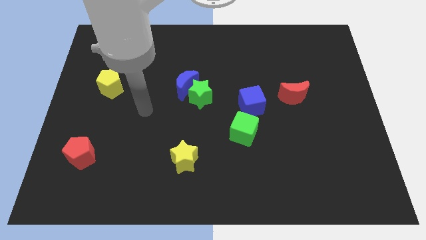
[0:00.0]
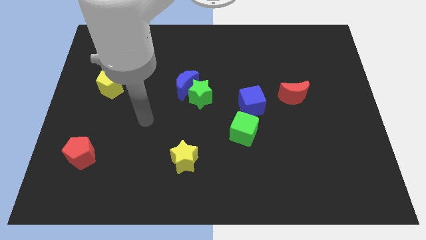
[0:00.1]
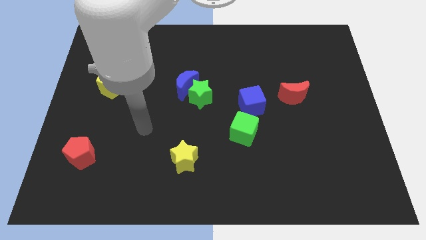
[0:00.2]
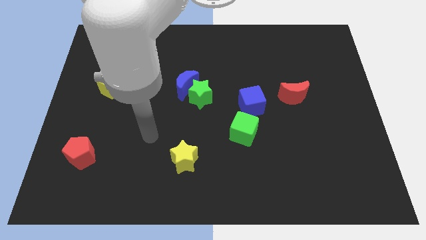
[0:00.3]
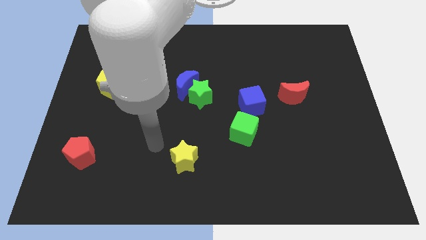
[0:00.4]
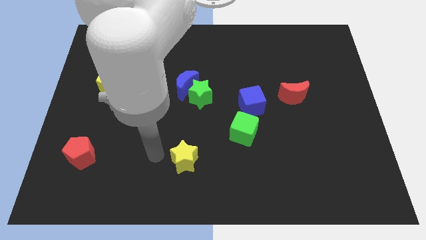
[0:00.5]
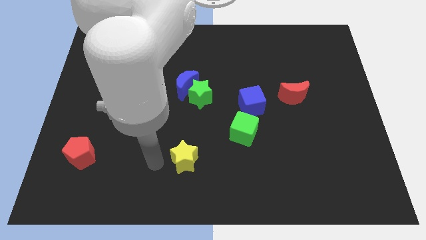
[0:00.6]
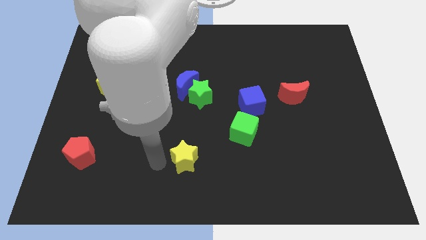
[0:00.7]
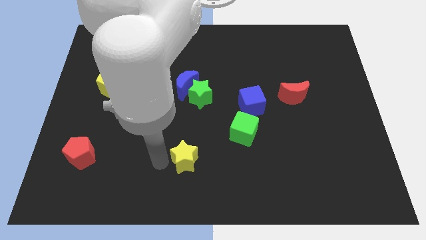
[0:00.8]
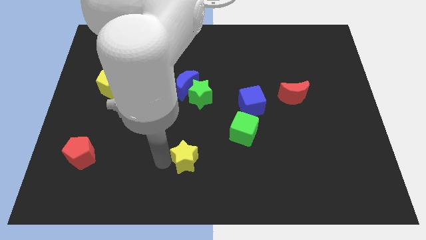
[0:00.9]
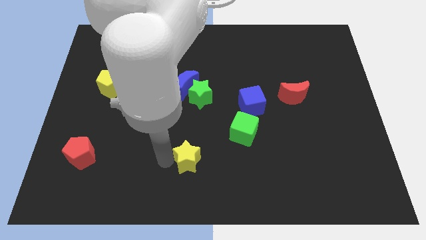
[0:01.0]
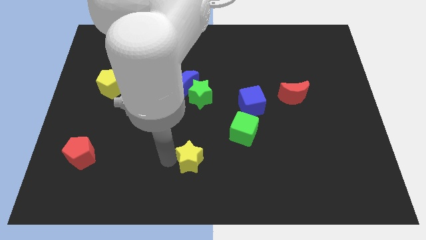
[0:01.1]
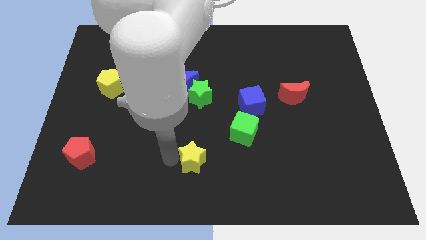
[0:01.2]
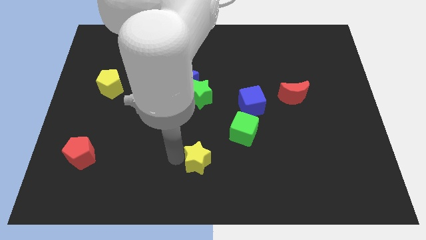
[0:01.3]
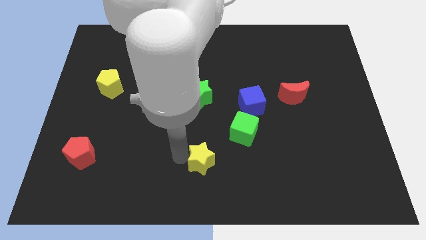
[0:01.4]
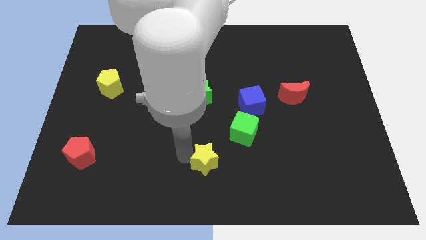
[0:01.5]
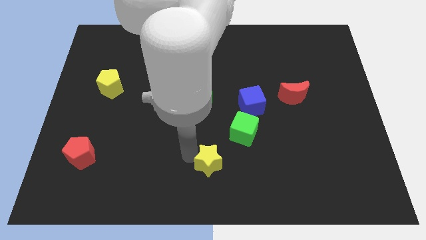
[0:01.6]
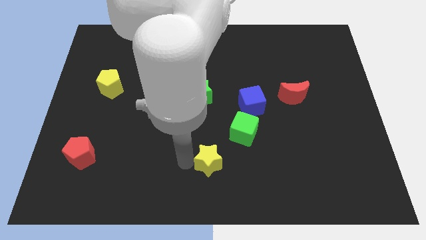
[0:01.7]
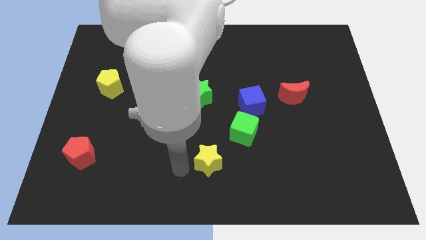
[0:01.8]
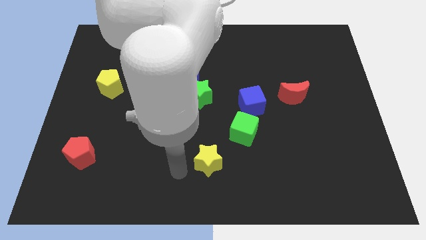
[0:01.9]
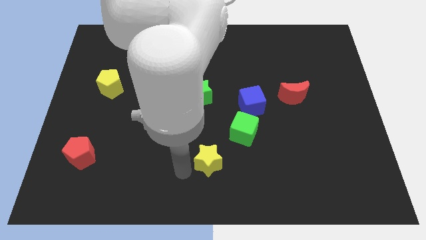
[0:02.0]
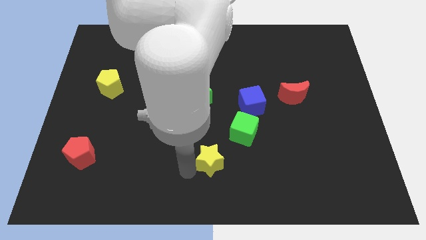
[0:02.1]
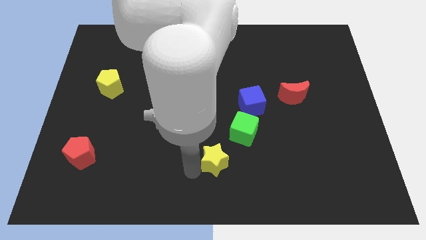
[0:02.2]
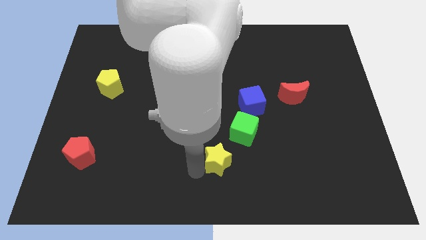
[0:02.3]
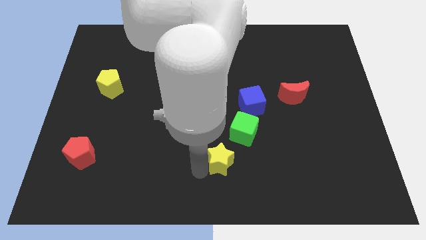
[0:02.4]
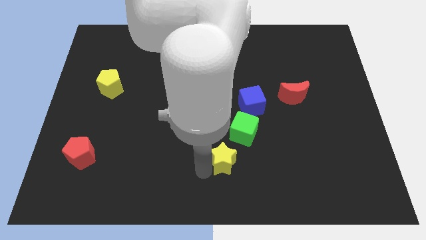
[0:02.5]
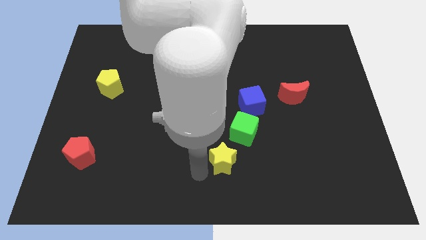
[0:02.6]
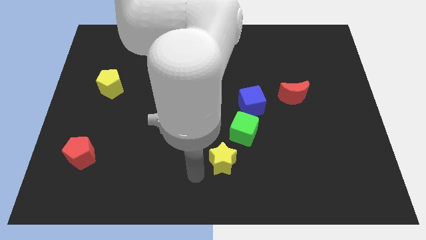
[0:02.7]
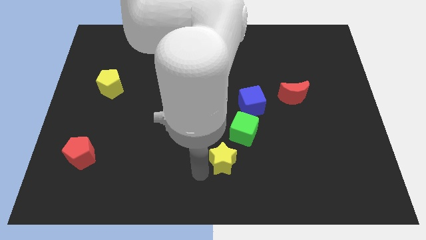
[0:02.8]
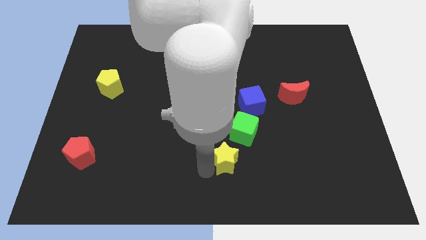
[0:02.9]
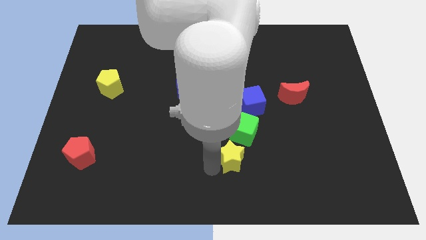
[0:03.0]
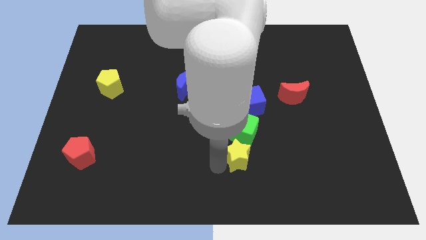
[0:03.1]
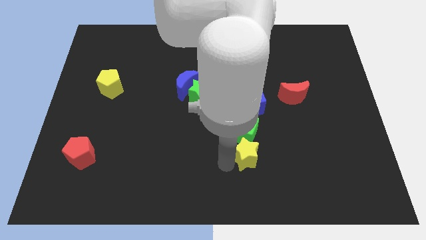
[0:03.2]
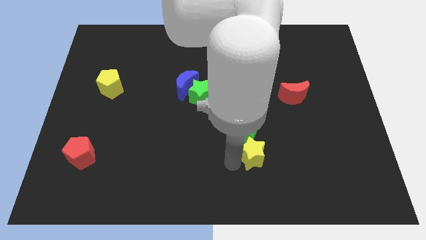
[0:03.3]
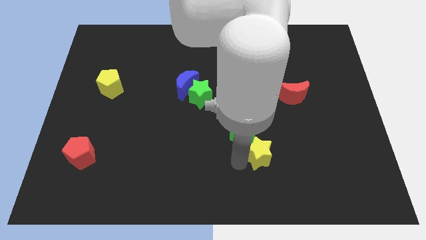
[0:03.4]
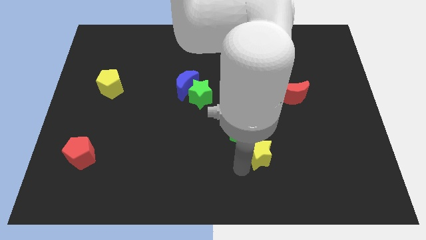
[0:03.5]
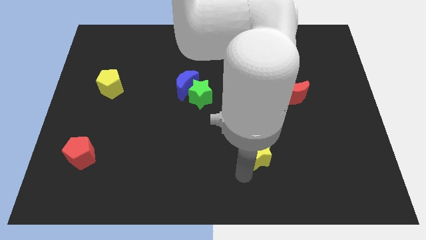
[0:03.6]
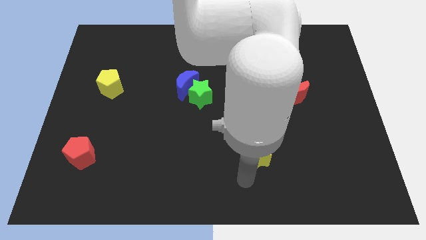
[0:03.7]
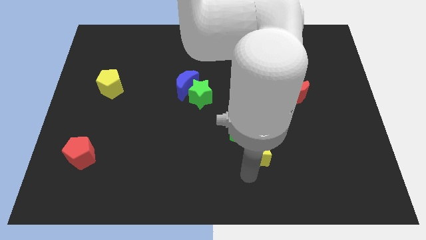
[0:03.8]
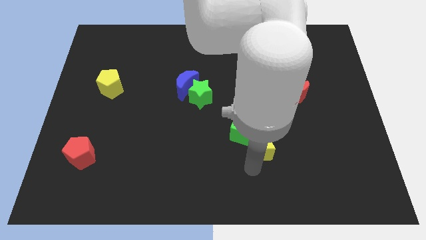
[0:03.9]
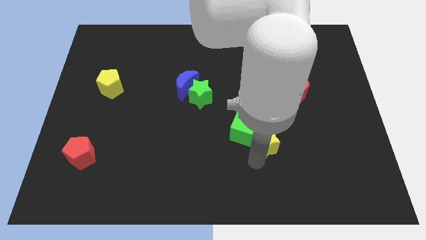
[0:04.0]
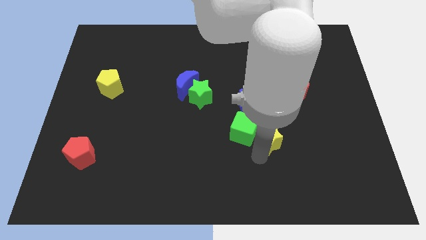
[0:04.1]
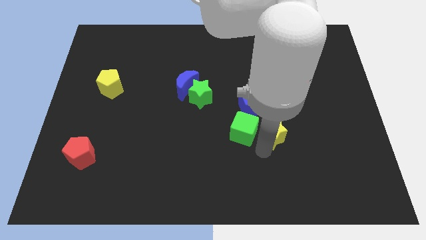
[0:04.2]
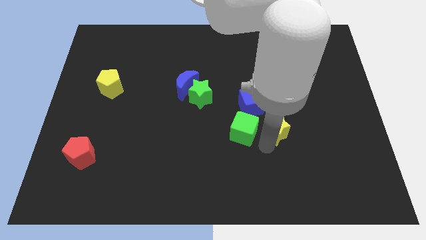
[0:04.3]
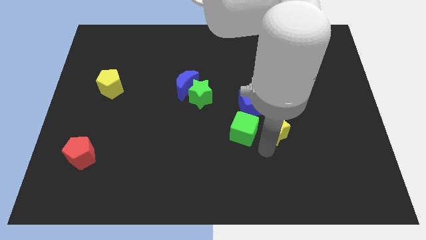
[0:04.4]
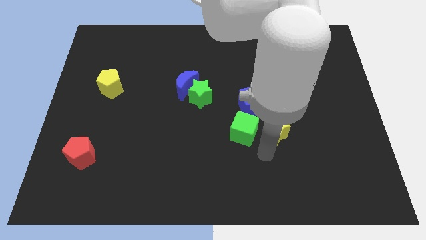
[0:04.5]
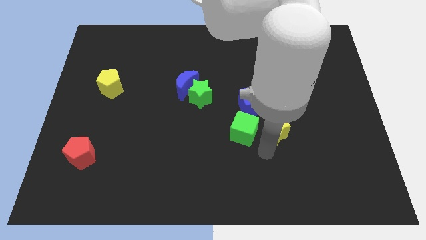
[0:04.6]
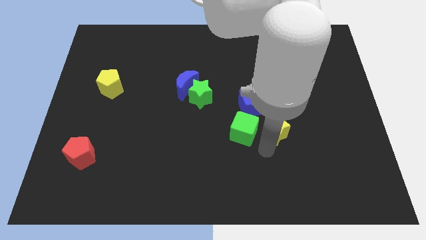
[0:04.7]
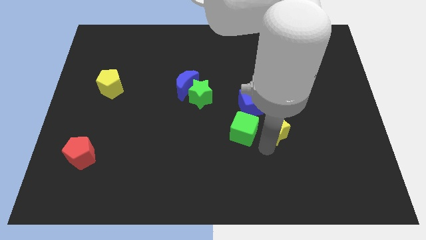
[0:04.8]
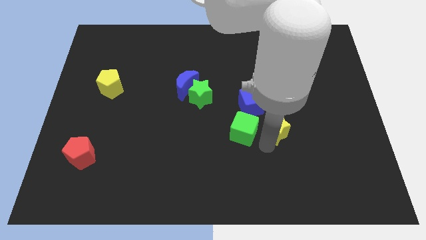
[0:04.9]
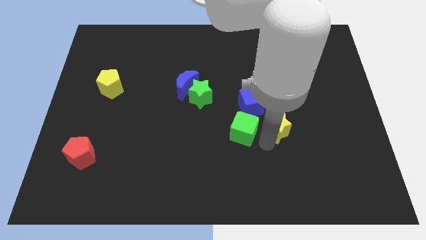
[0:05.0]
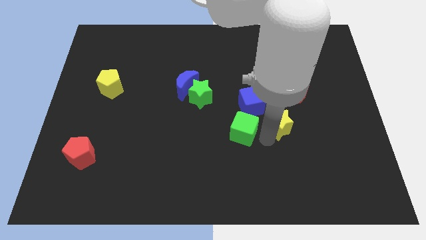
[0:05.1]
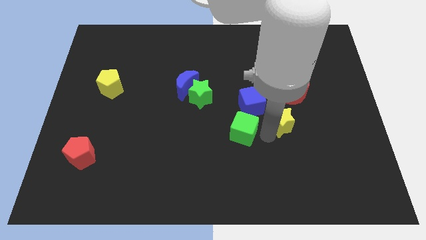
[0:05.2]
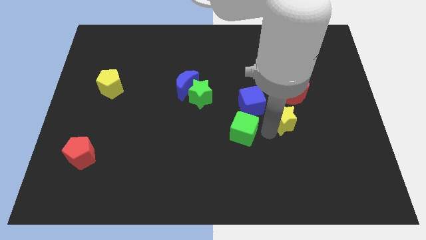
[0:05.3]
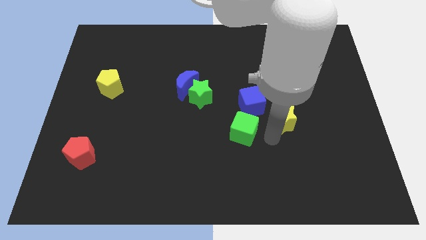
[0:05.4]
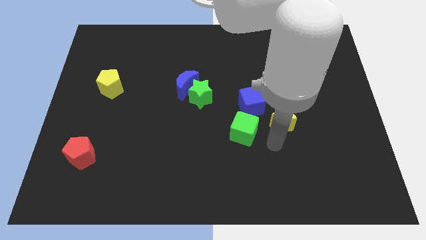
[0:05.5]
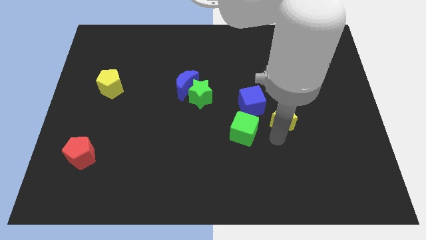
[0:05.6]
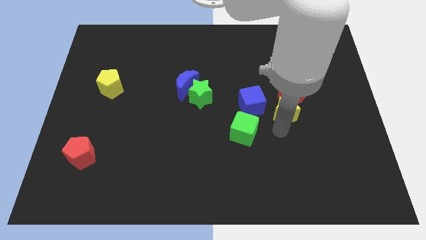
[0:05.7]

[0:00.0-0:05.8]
put the yellow star close to the red moon

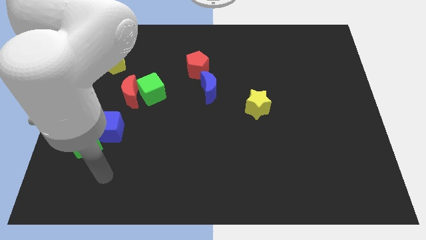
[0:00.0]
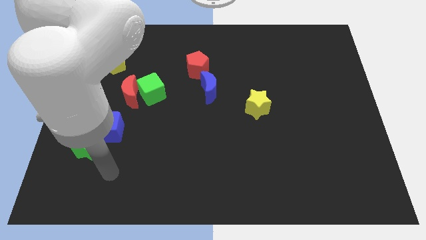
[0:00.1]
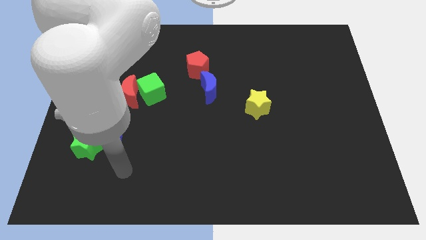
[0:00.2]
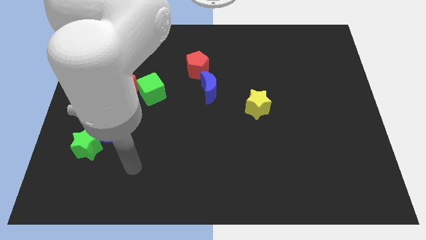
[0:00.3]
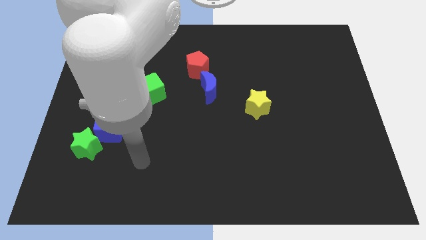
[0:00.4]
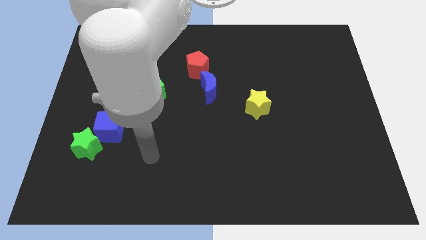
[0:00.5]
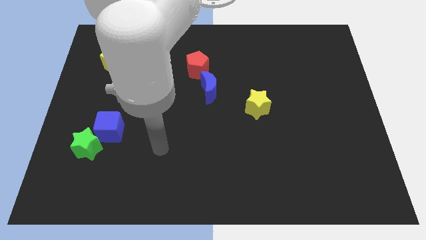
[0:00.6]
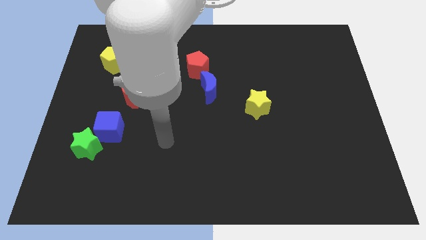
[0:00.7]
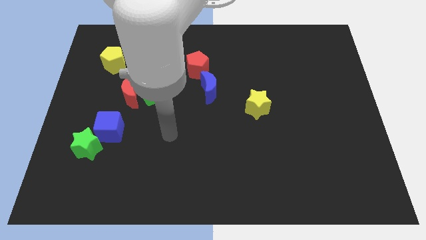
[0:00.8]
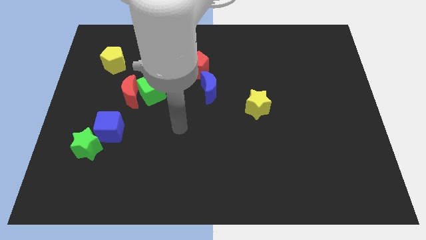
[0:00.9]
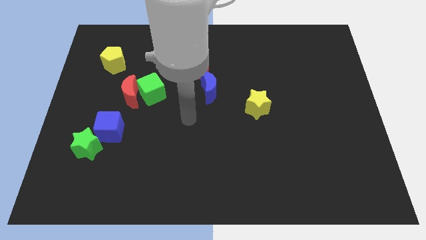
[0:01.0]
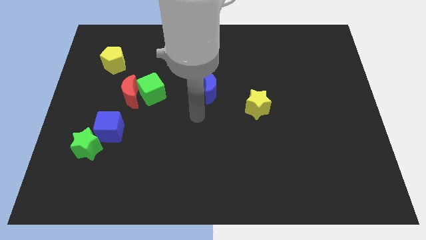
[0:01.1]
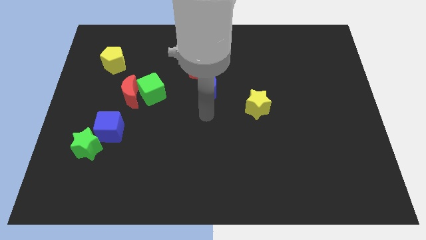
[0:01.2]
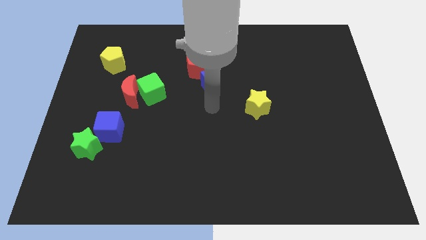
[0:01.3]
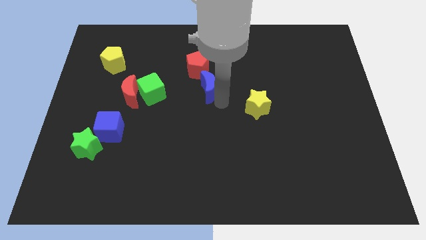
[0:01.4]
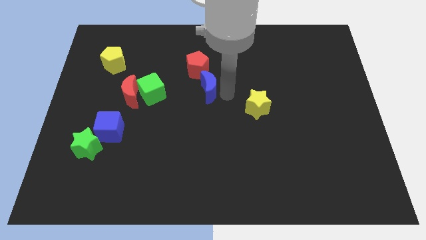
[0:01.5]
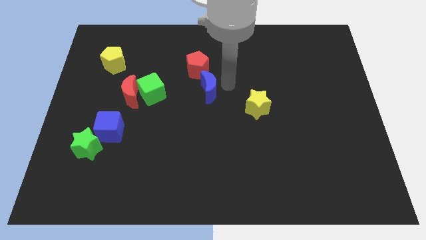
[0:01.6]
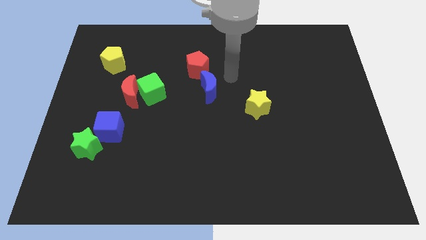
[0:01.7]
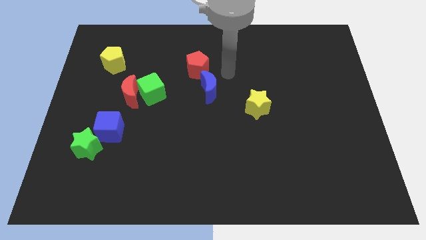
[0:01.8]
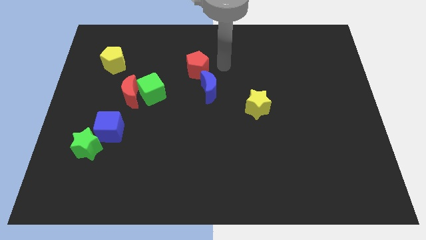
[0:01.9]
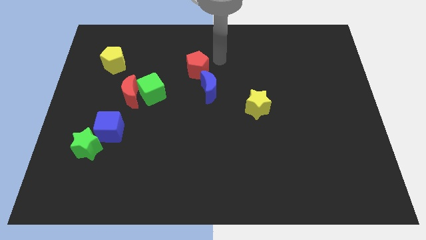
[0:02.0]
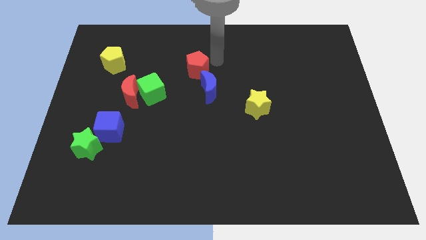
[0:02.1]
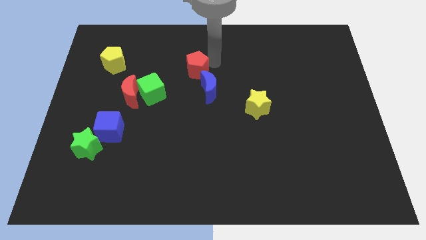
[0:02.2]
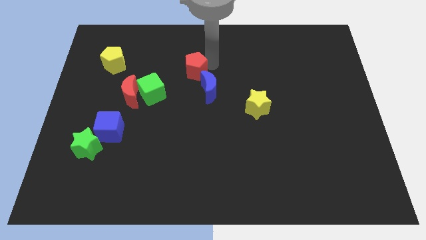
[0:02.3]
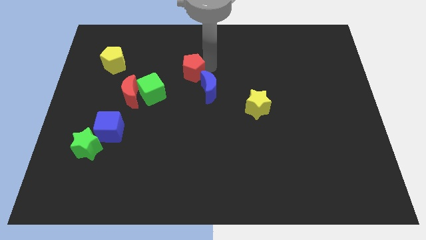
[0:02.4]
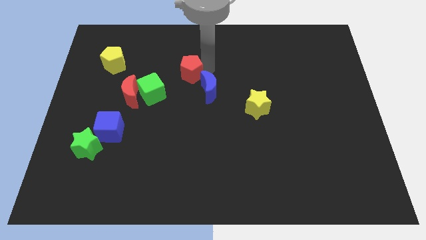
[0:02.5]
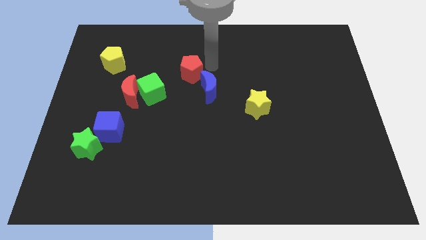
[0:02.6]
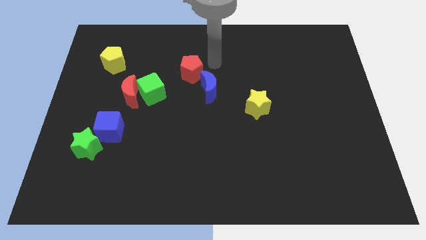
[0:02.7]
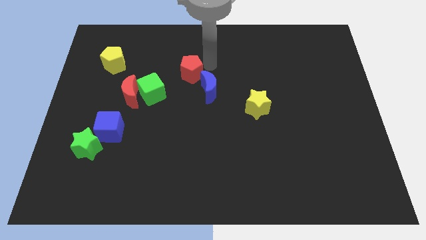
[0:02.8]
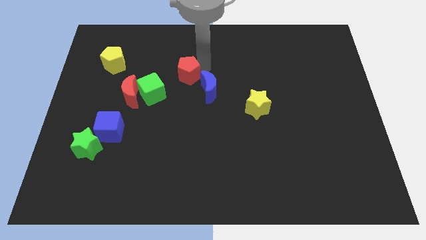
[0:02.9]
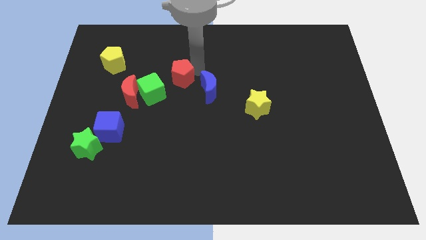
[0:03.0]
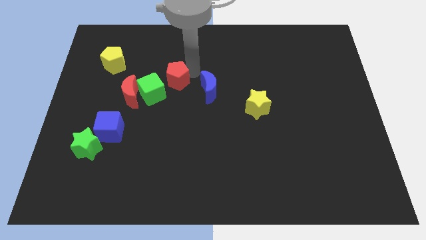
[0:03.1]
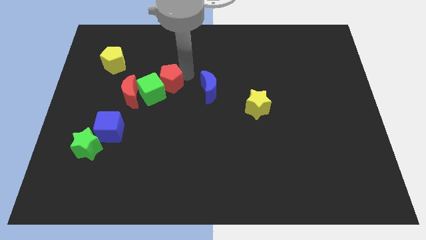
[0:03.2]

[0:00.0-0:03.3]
move the red pentagon close to the green cube
